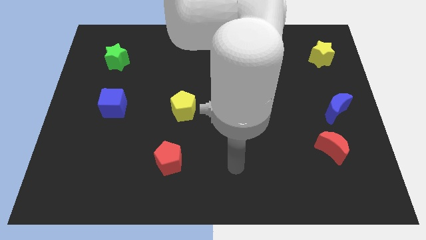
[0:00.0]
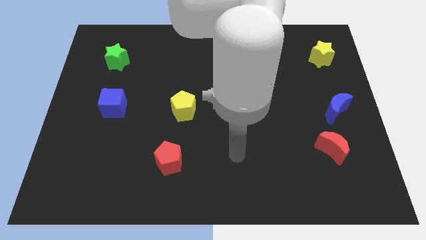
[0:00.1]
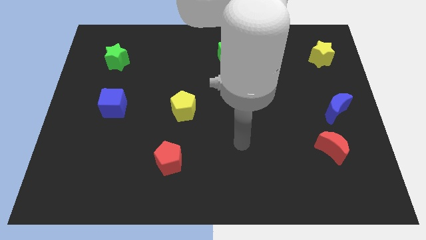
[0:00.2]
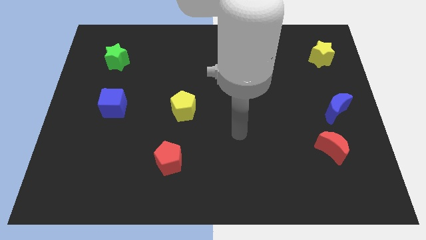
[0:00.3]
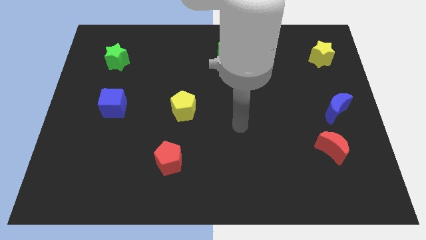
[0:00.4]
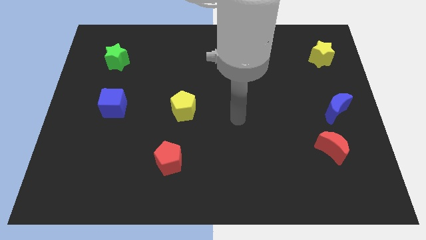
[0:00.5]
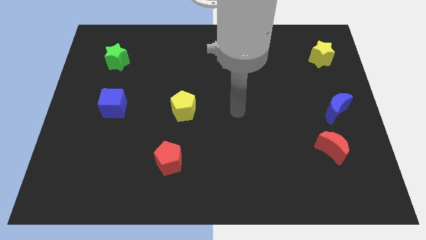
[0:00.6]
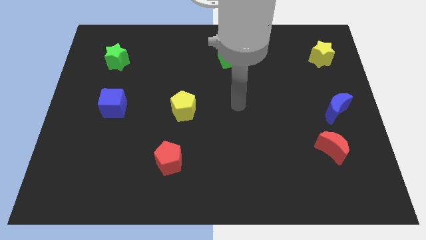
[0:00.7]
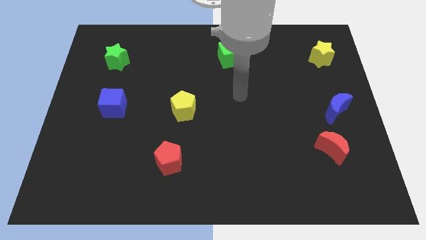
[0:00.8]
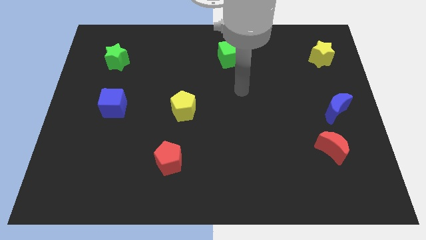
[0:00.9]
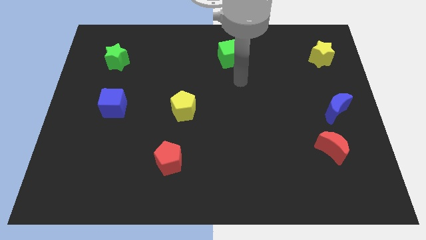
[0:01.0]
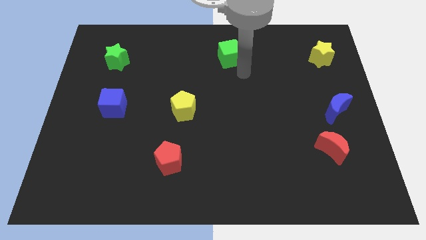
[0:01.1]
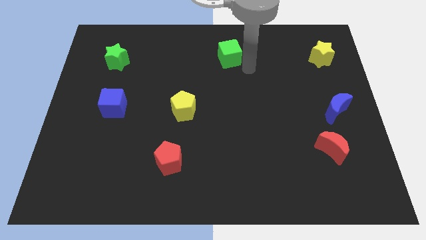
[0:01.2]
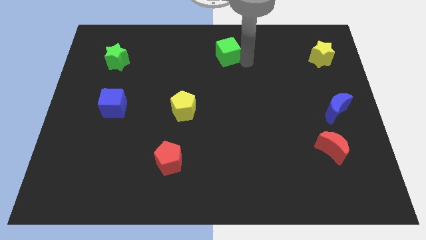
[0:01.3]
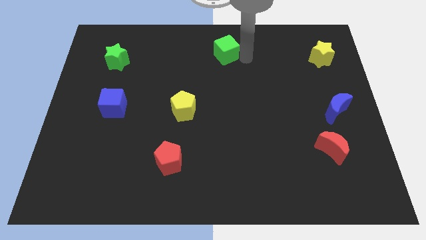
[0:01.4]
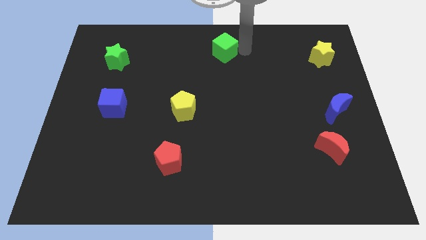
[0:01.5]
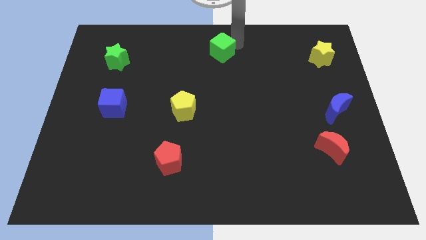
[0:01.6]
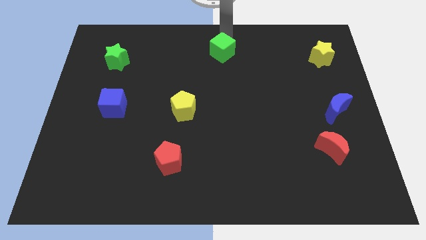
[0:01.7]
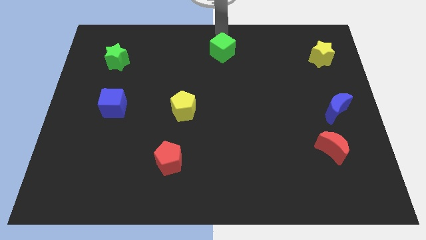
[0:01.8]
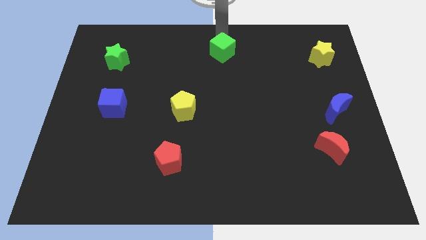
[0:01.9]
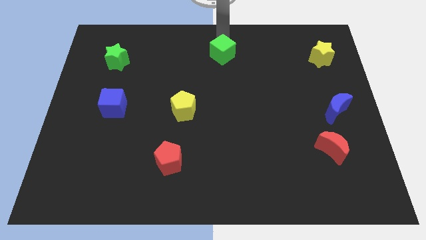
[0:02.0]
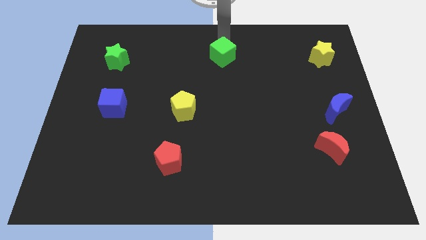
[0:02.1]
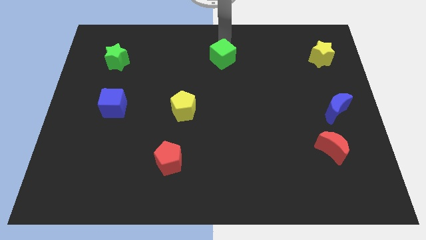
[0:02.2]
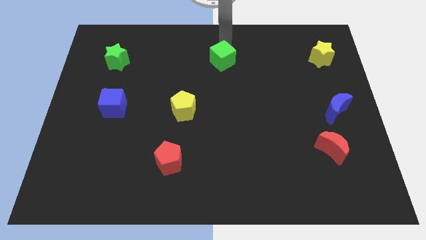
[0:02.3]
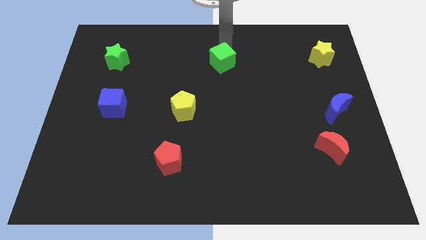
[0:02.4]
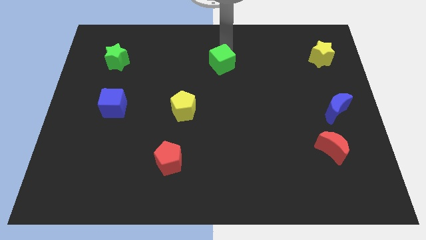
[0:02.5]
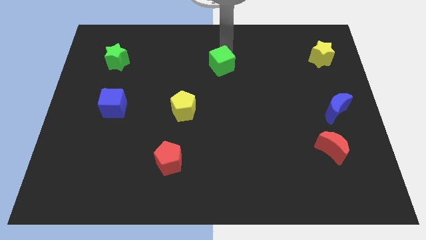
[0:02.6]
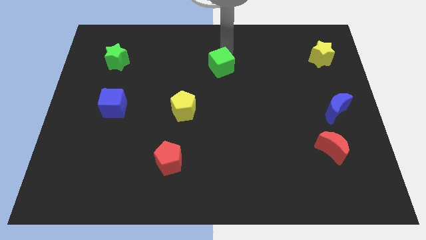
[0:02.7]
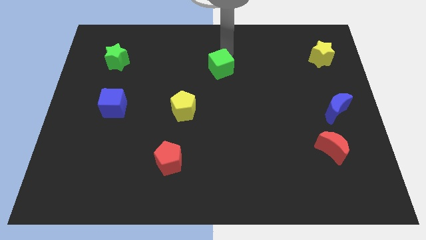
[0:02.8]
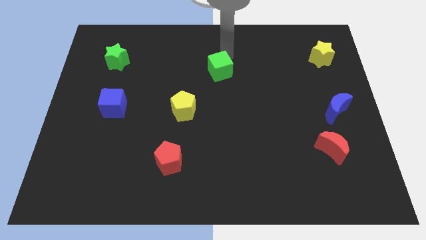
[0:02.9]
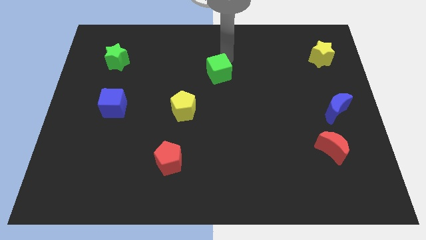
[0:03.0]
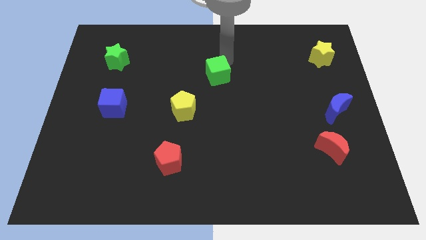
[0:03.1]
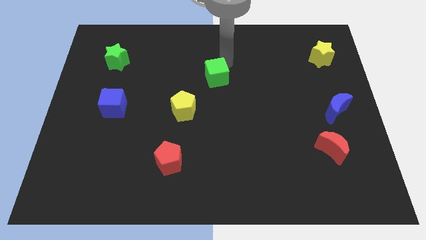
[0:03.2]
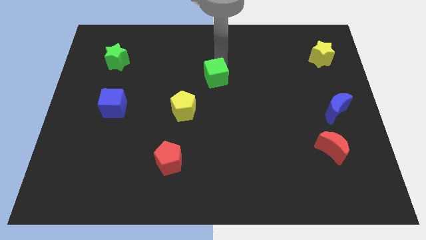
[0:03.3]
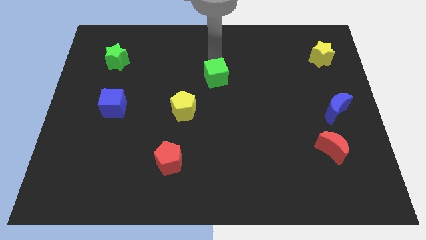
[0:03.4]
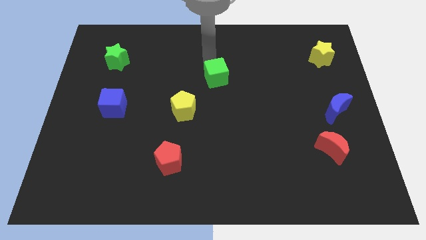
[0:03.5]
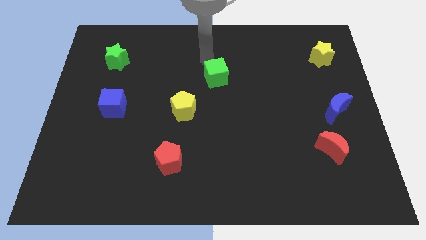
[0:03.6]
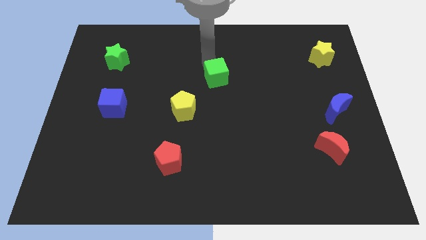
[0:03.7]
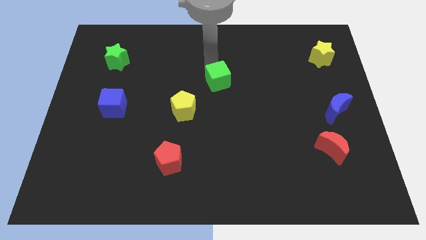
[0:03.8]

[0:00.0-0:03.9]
slide the green cube downwards somewhat

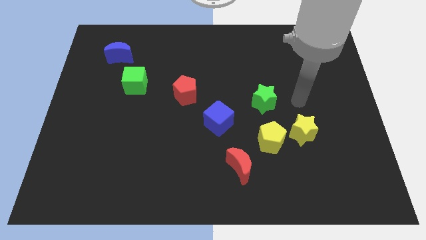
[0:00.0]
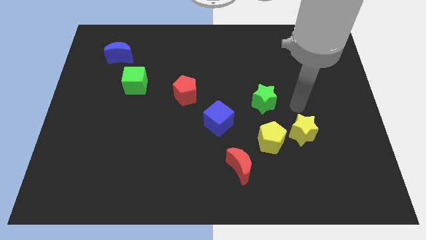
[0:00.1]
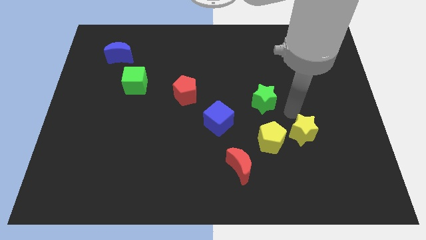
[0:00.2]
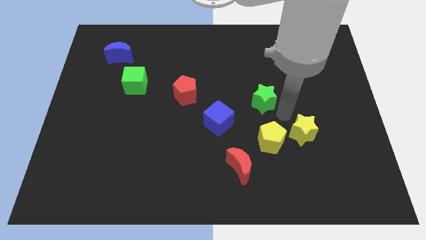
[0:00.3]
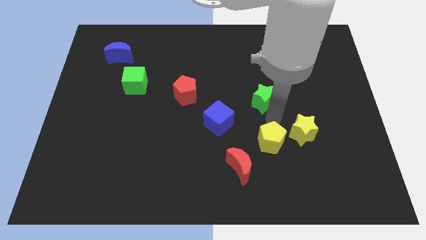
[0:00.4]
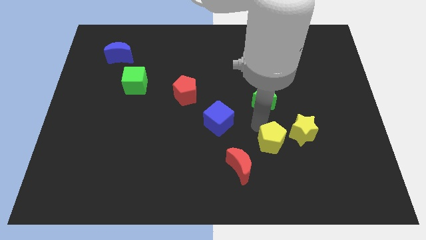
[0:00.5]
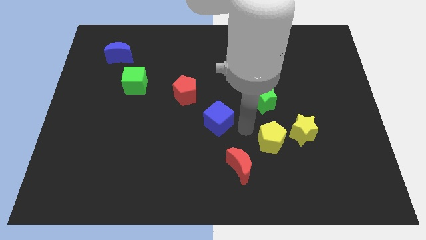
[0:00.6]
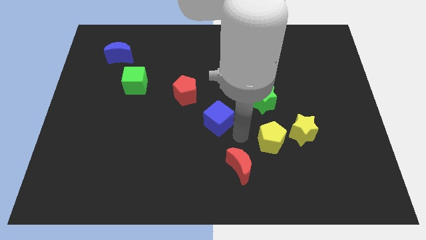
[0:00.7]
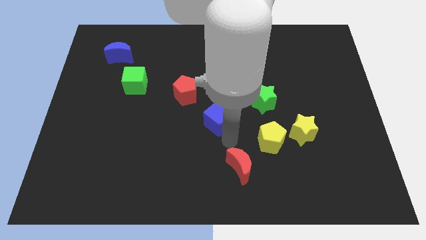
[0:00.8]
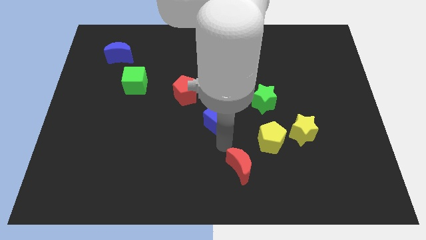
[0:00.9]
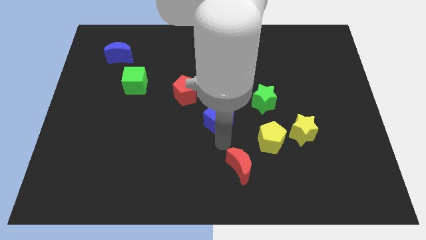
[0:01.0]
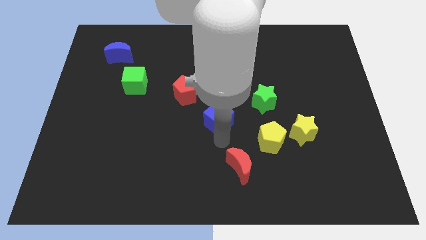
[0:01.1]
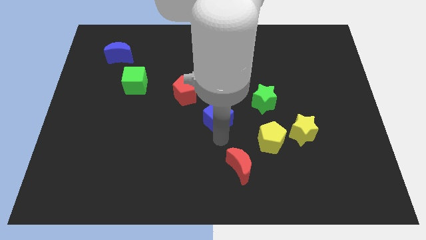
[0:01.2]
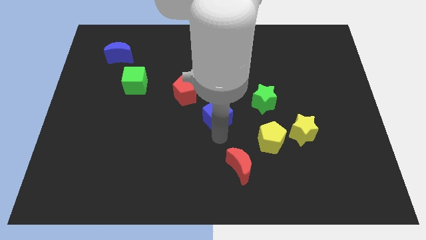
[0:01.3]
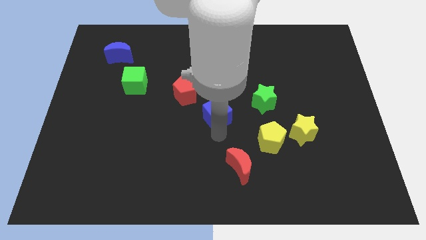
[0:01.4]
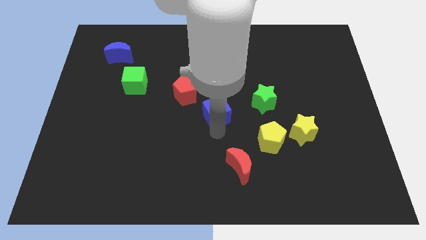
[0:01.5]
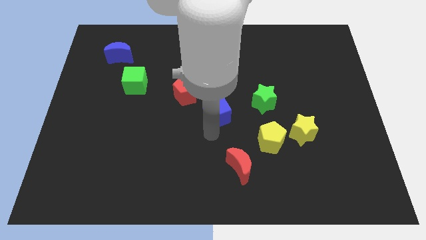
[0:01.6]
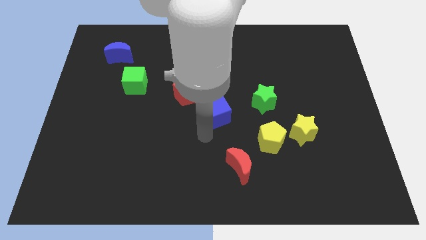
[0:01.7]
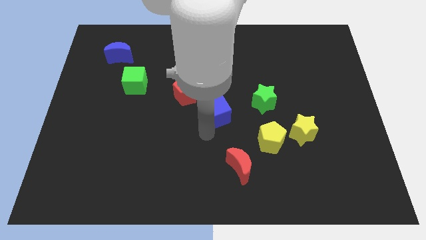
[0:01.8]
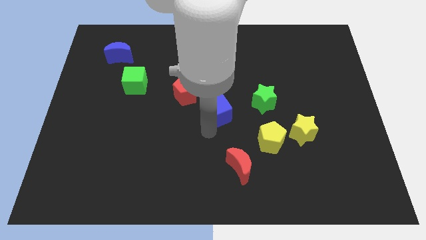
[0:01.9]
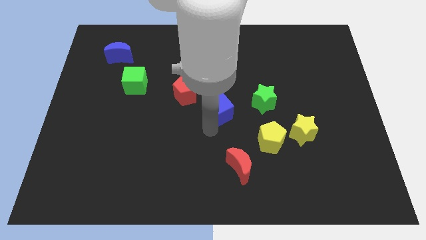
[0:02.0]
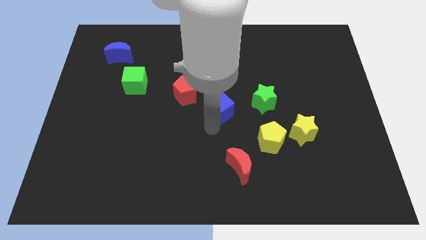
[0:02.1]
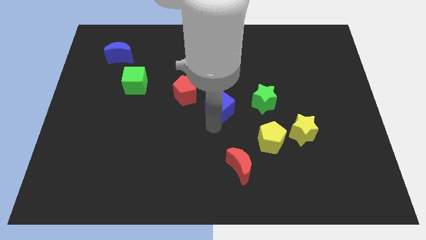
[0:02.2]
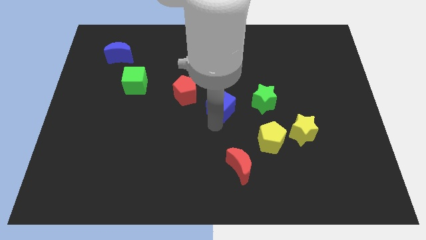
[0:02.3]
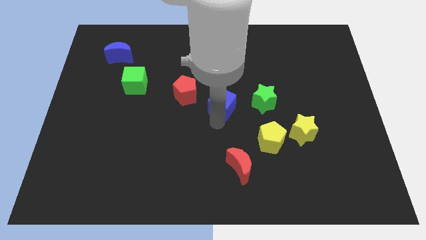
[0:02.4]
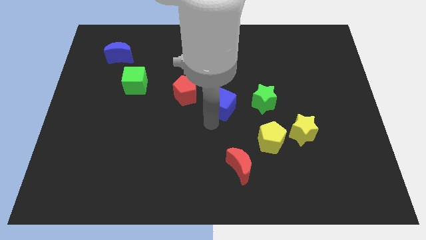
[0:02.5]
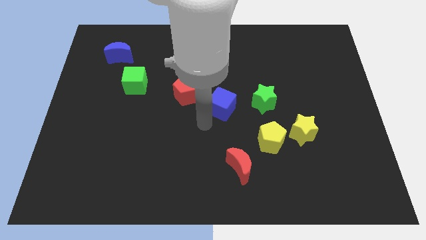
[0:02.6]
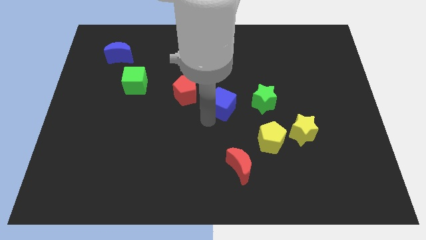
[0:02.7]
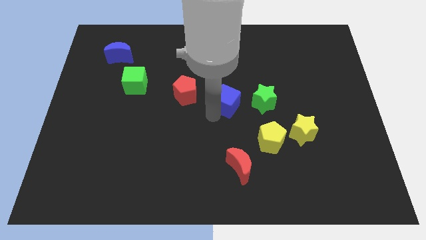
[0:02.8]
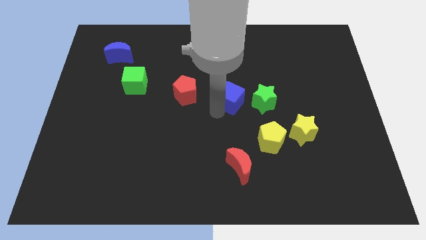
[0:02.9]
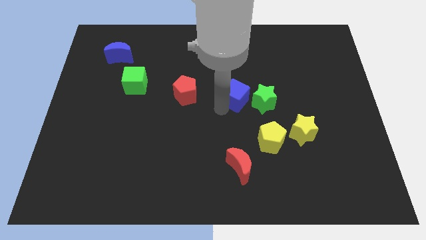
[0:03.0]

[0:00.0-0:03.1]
slightly slide the blue cube upwards and then right

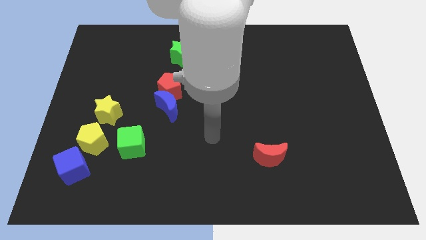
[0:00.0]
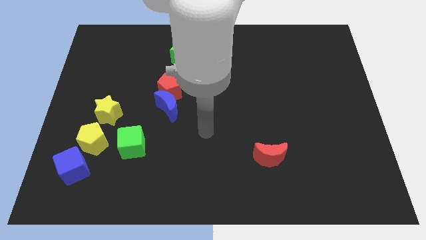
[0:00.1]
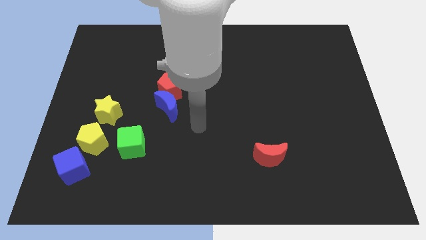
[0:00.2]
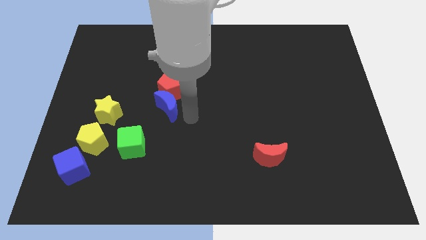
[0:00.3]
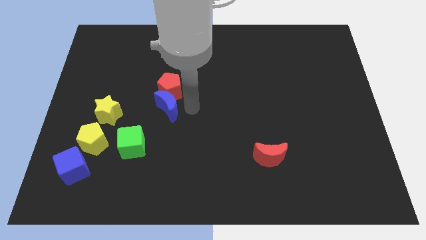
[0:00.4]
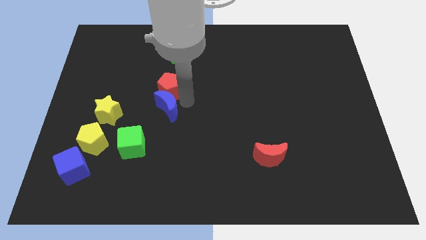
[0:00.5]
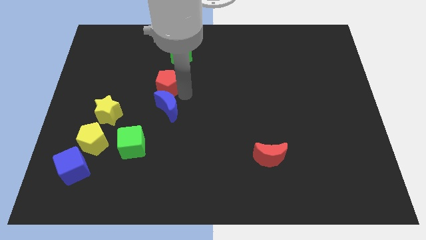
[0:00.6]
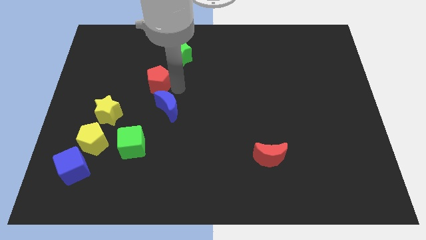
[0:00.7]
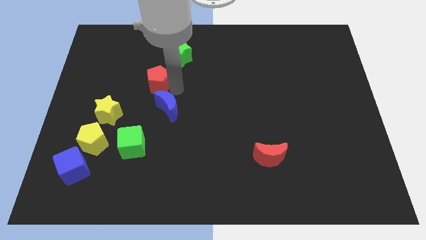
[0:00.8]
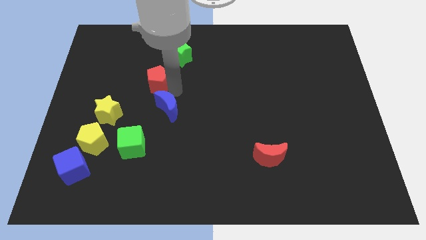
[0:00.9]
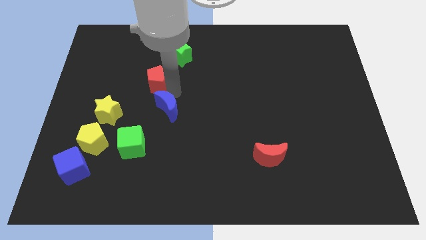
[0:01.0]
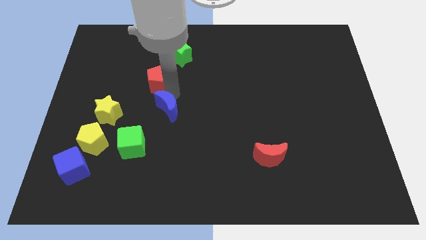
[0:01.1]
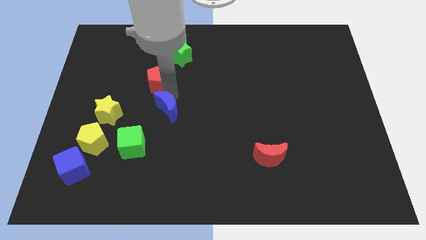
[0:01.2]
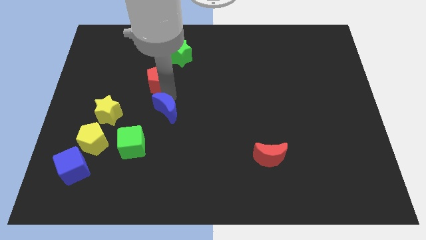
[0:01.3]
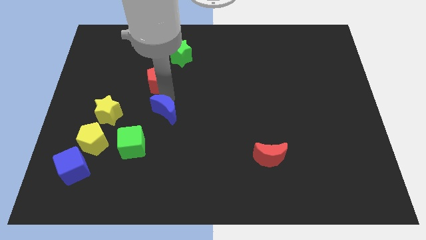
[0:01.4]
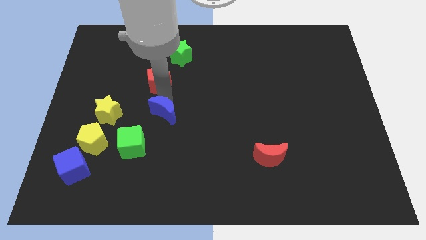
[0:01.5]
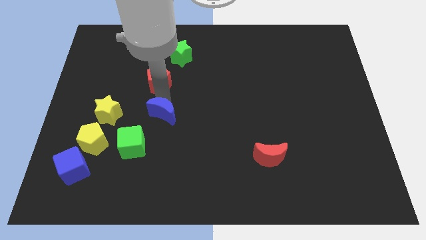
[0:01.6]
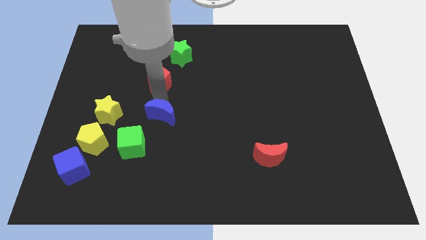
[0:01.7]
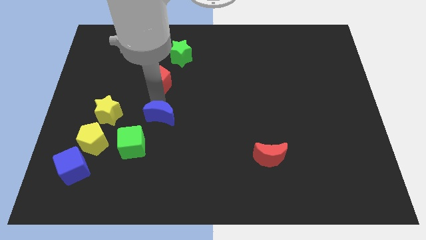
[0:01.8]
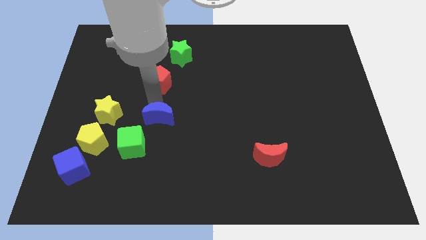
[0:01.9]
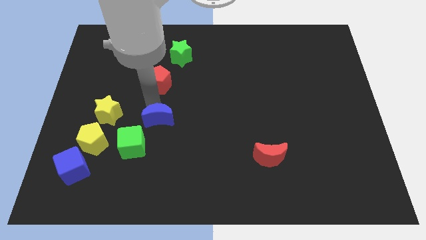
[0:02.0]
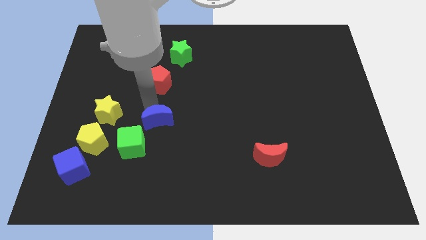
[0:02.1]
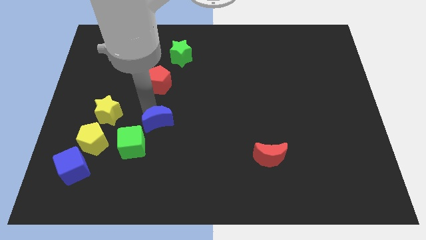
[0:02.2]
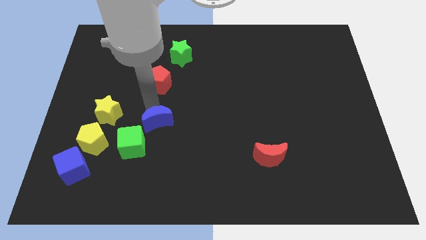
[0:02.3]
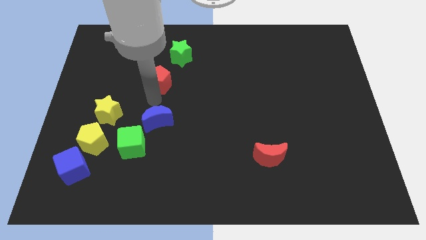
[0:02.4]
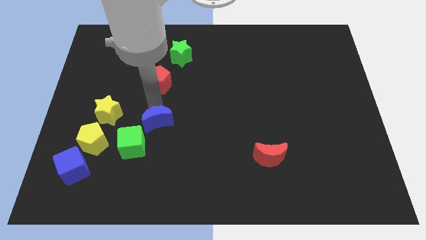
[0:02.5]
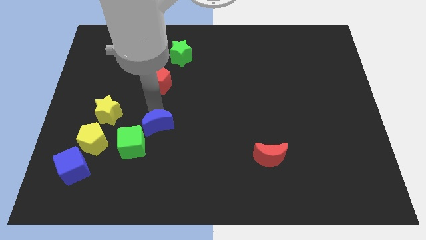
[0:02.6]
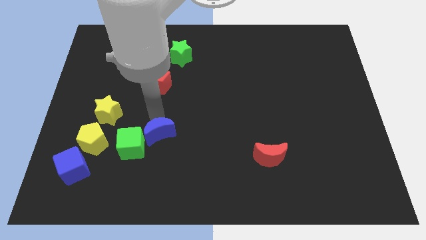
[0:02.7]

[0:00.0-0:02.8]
move the blue moon down slightly
